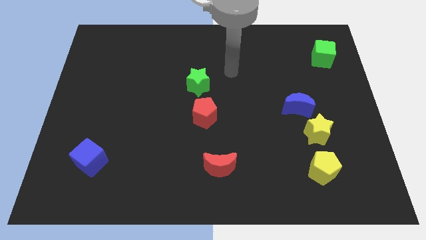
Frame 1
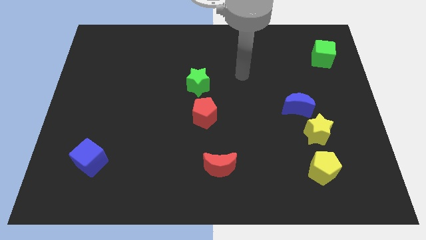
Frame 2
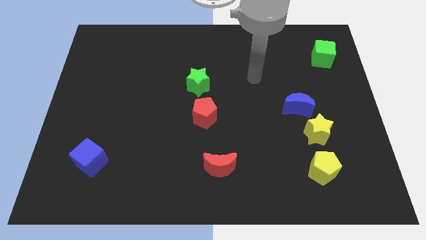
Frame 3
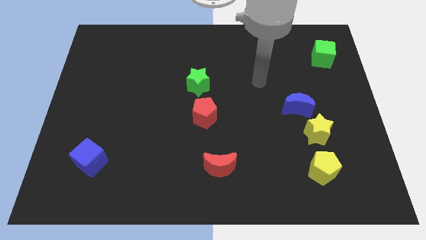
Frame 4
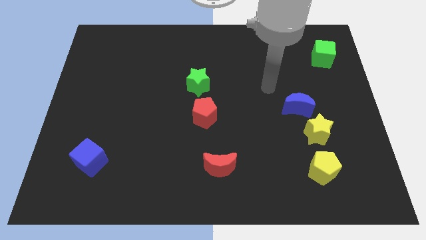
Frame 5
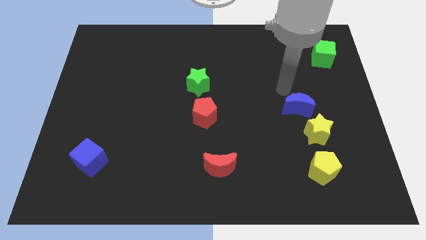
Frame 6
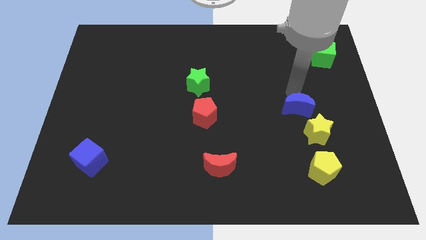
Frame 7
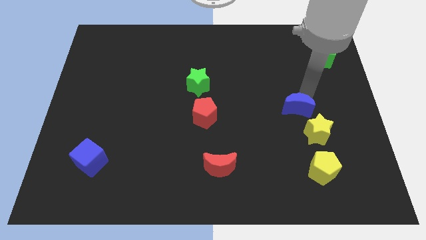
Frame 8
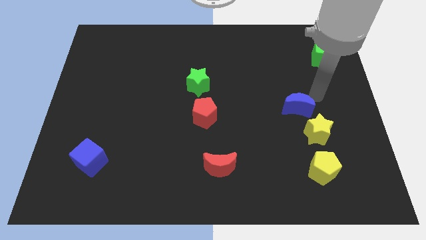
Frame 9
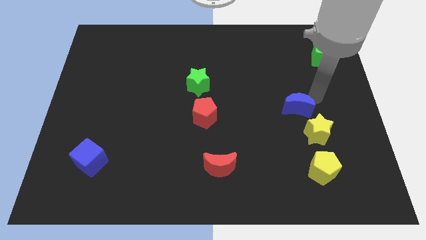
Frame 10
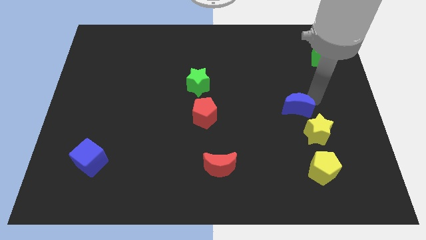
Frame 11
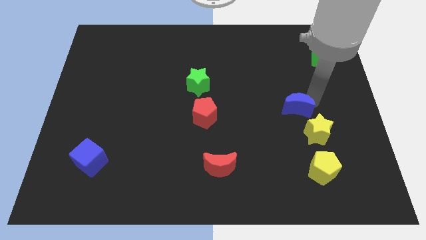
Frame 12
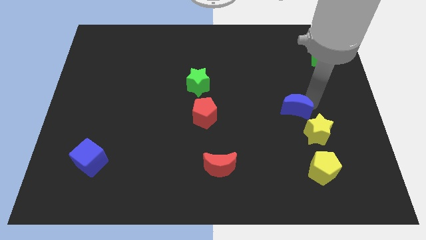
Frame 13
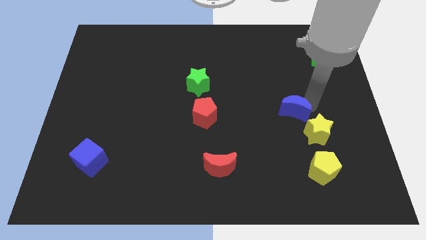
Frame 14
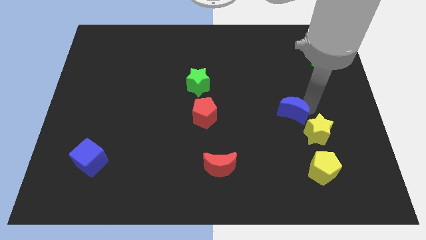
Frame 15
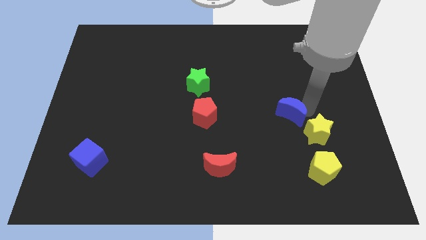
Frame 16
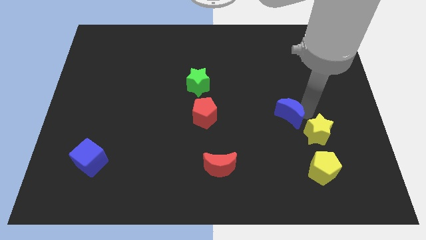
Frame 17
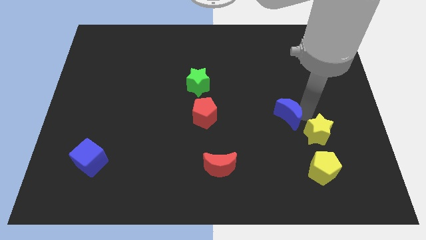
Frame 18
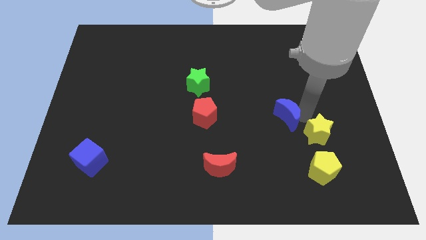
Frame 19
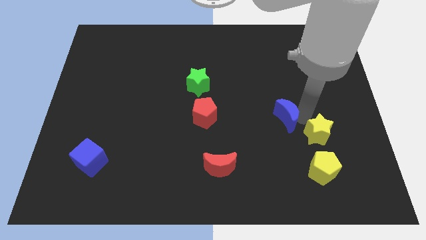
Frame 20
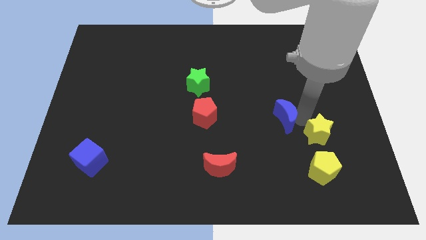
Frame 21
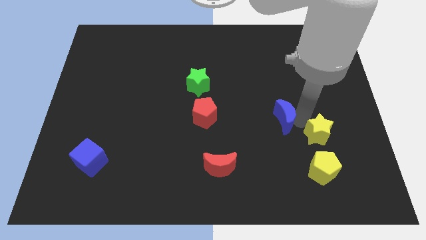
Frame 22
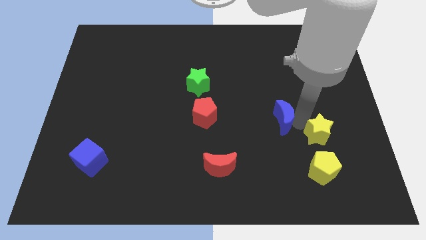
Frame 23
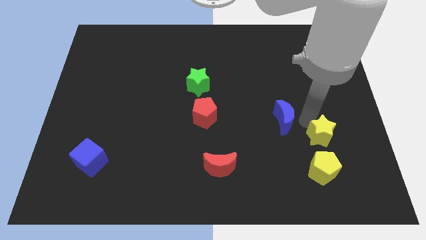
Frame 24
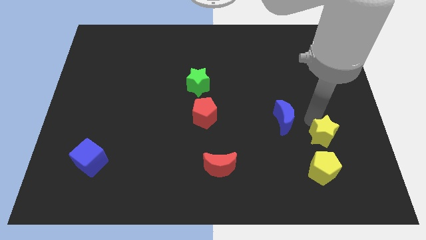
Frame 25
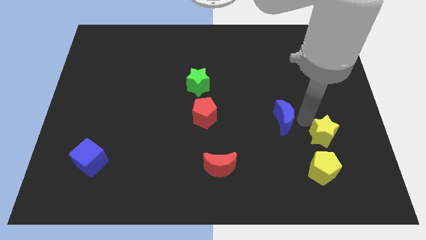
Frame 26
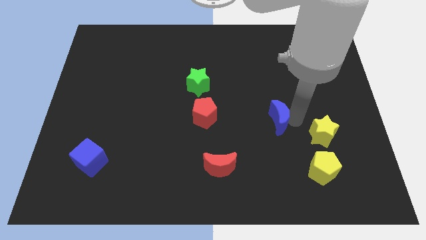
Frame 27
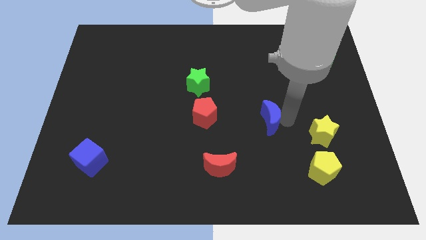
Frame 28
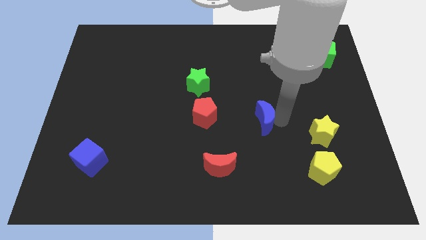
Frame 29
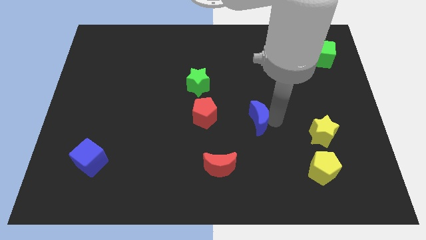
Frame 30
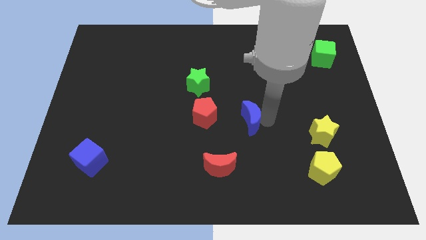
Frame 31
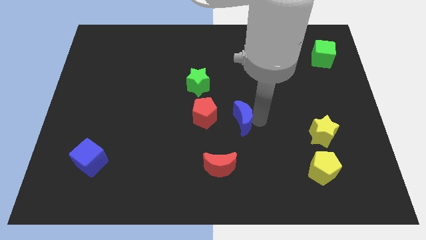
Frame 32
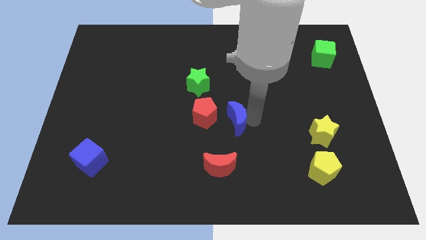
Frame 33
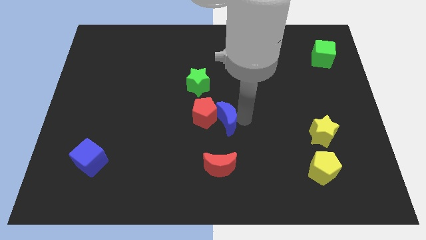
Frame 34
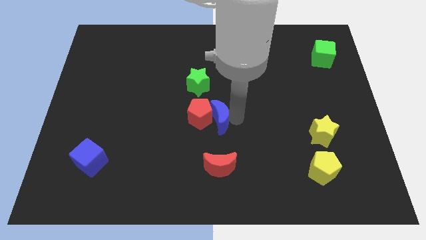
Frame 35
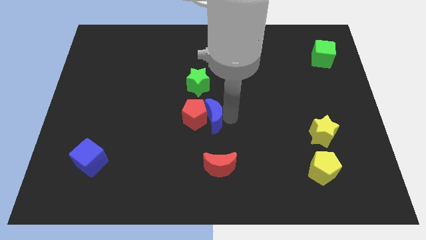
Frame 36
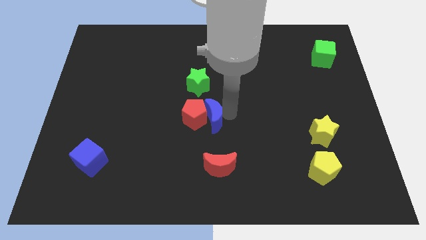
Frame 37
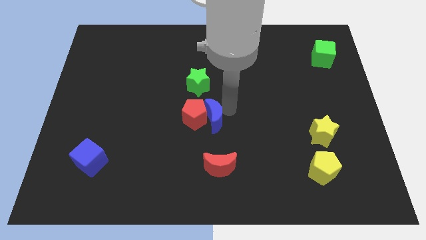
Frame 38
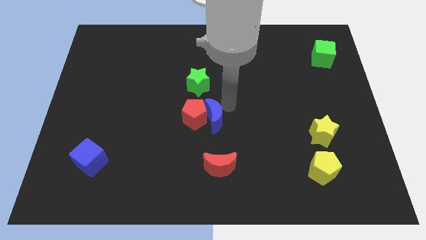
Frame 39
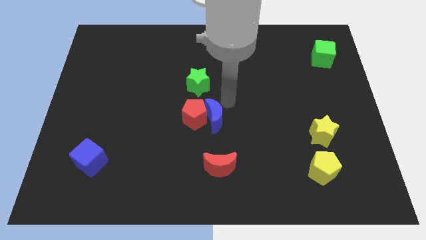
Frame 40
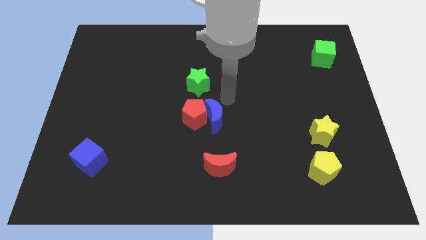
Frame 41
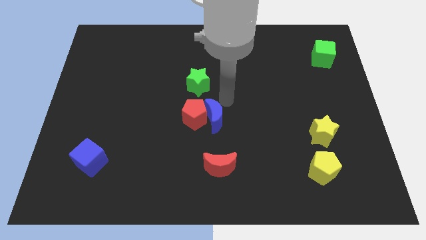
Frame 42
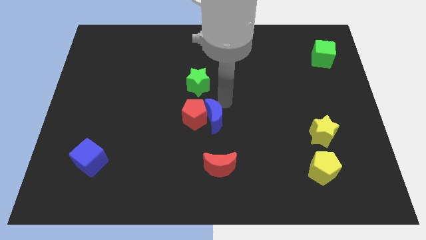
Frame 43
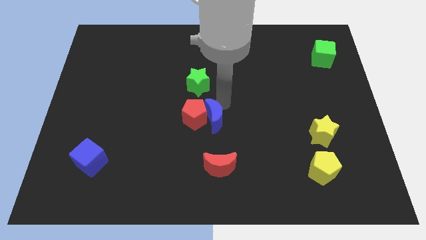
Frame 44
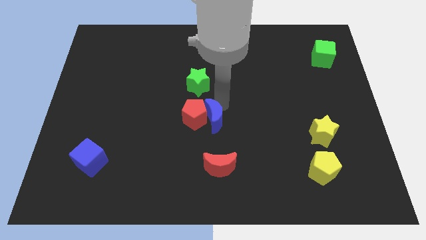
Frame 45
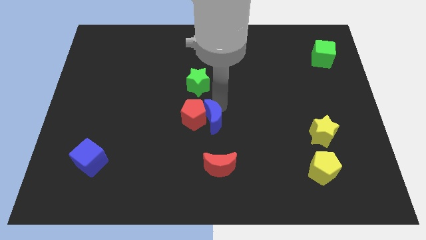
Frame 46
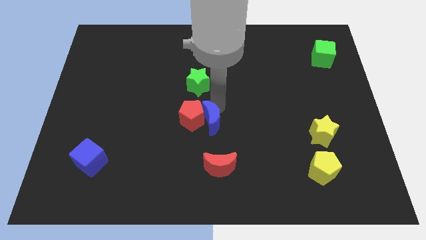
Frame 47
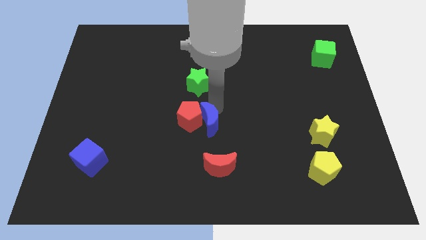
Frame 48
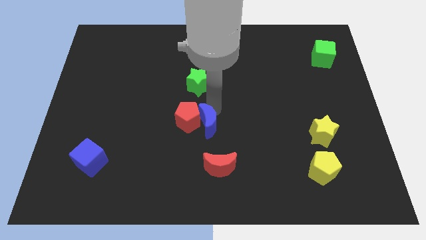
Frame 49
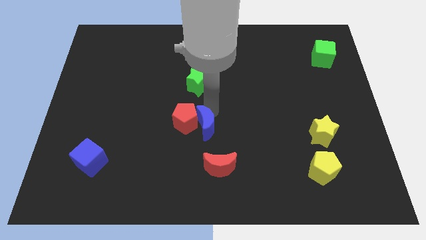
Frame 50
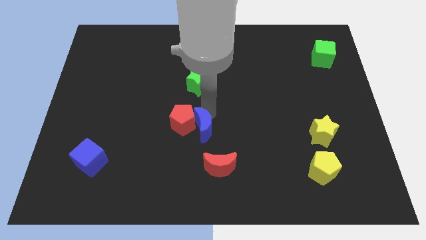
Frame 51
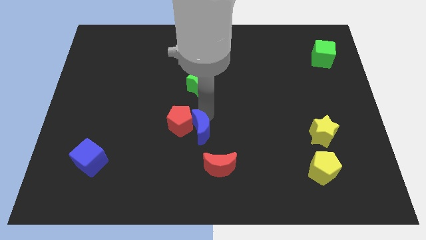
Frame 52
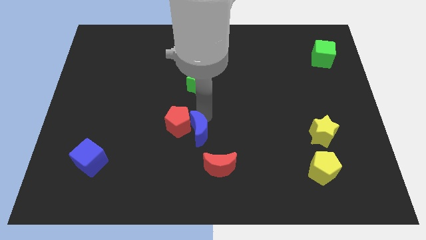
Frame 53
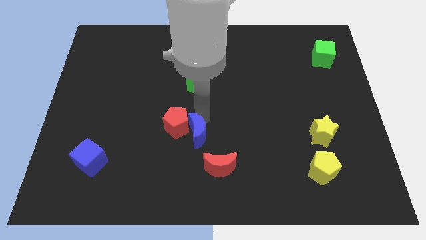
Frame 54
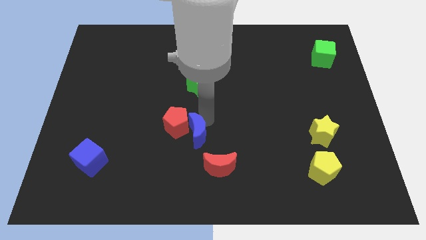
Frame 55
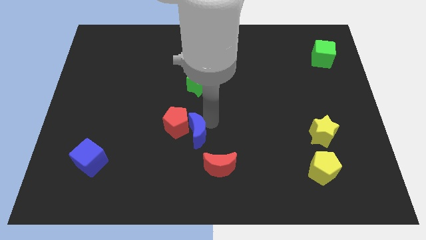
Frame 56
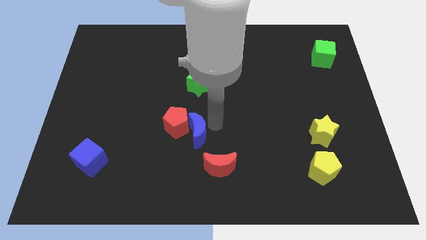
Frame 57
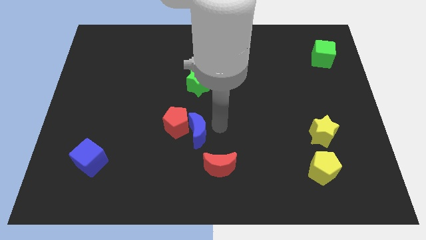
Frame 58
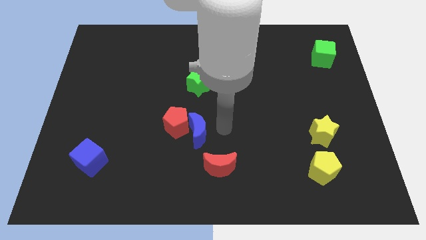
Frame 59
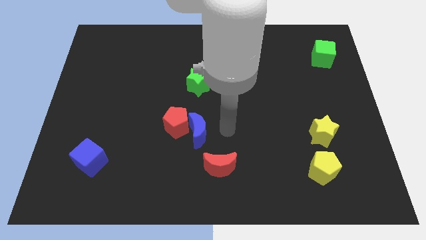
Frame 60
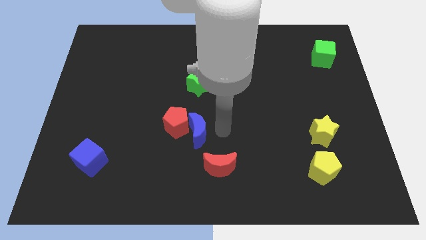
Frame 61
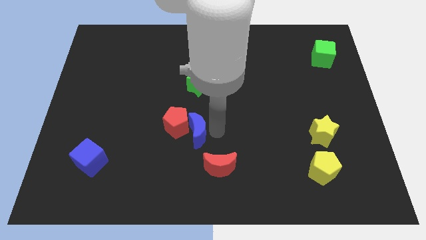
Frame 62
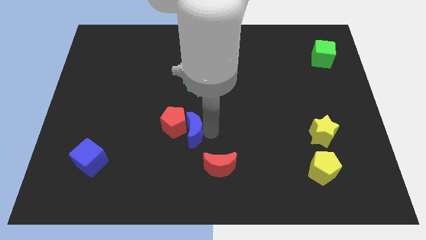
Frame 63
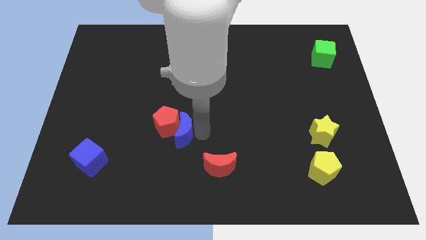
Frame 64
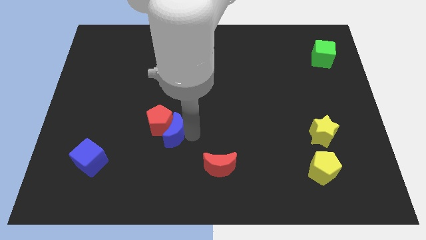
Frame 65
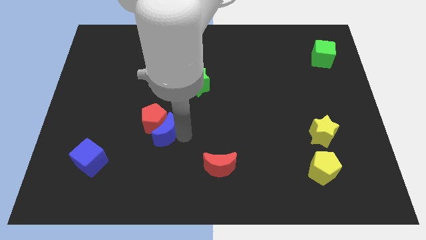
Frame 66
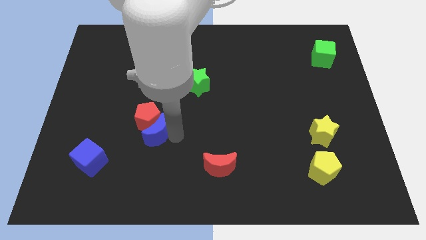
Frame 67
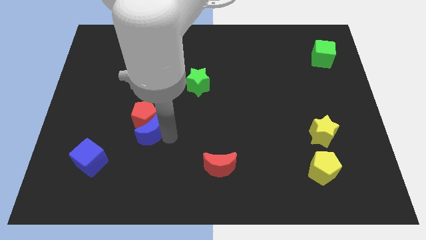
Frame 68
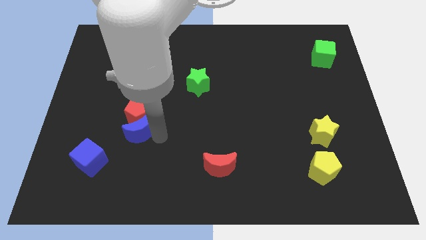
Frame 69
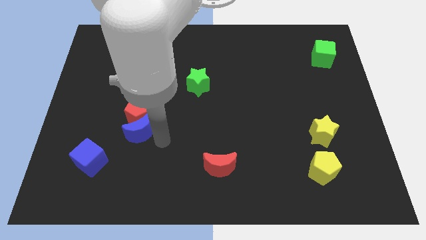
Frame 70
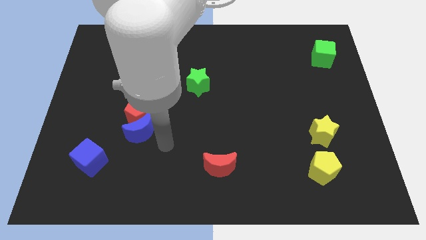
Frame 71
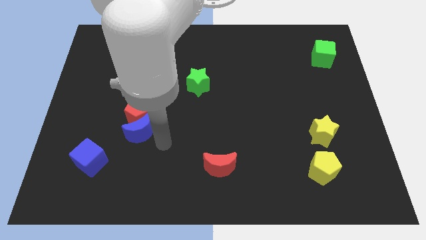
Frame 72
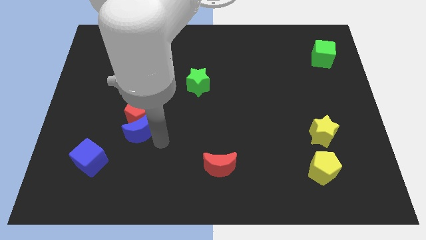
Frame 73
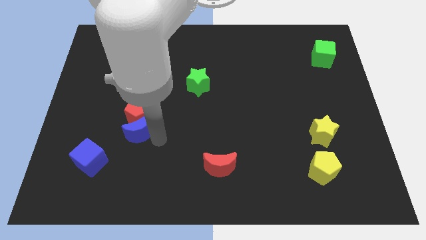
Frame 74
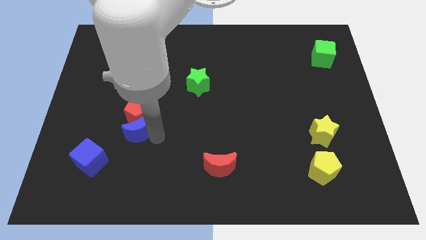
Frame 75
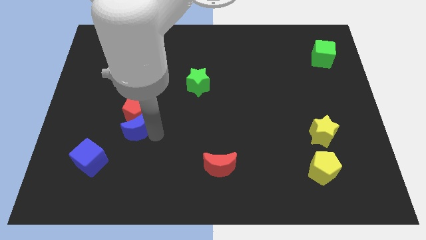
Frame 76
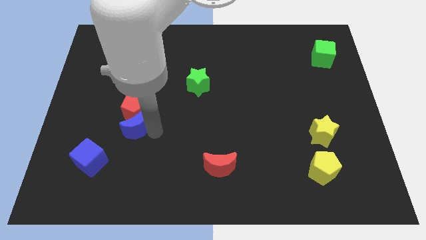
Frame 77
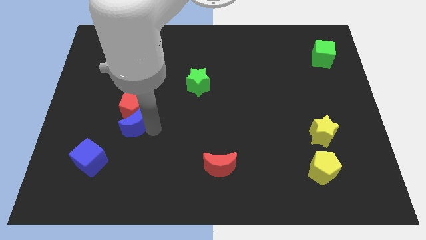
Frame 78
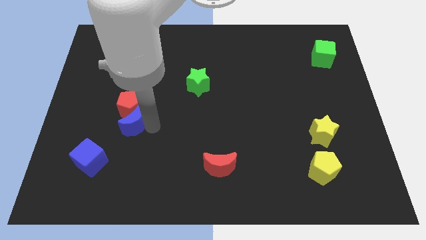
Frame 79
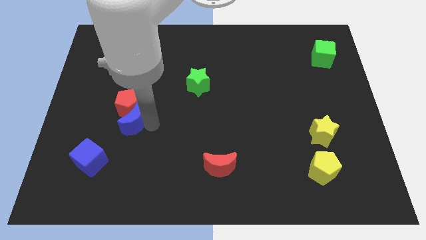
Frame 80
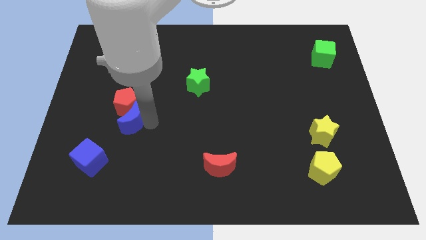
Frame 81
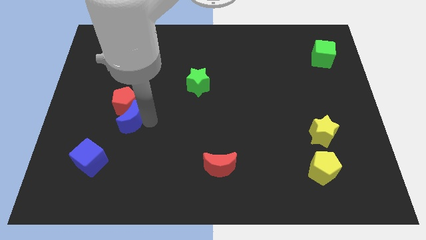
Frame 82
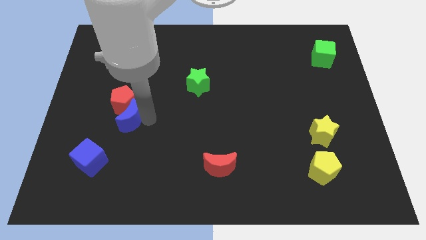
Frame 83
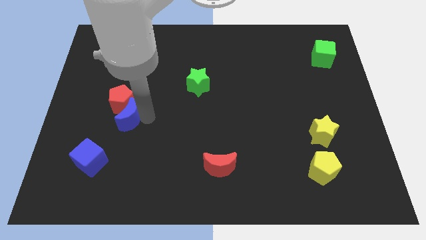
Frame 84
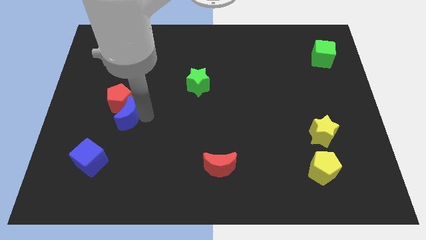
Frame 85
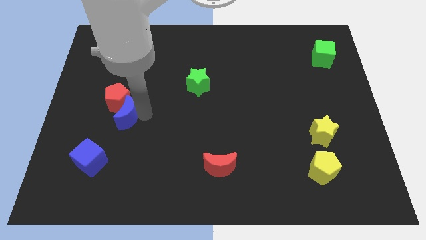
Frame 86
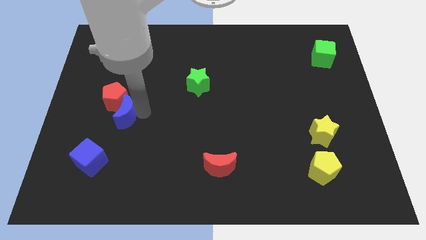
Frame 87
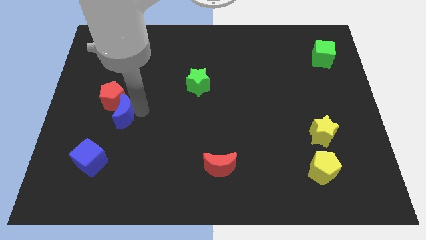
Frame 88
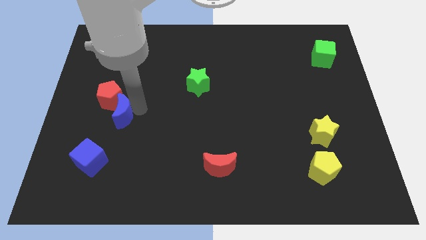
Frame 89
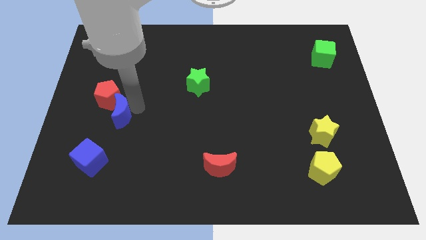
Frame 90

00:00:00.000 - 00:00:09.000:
slide the blue moon to the top side of the blue cube
